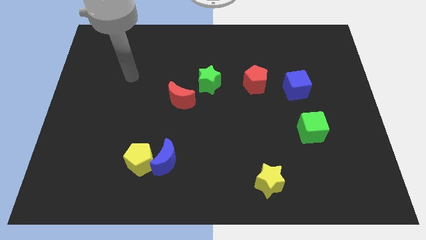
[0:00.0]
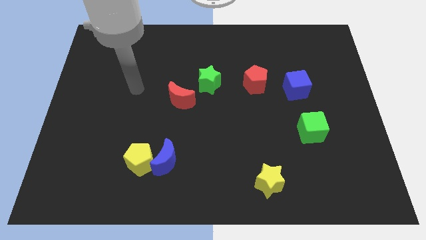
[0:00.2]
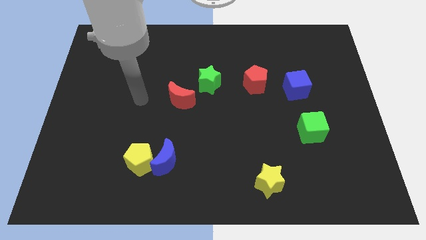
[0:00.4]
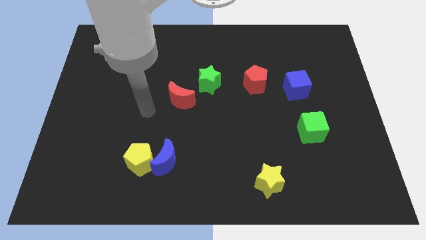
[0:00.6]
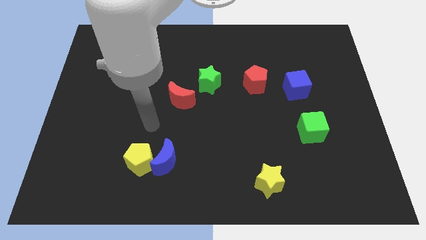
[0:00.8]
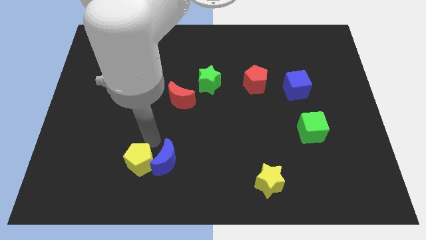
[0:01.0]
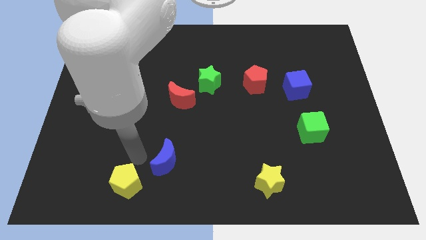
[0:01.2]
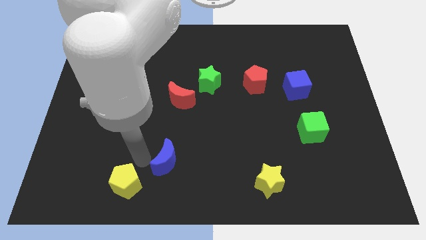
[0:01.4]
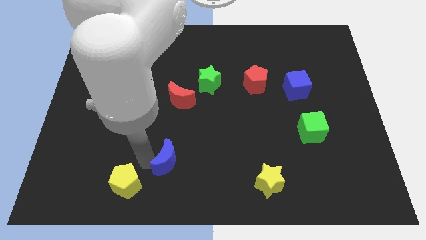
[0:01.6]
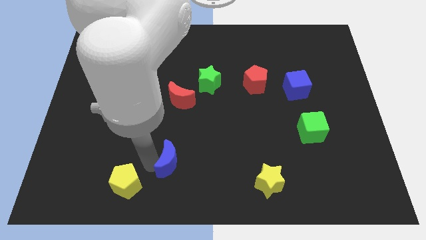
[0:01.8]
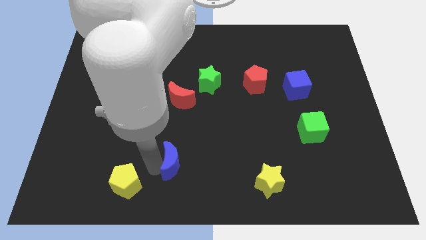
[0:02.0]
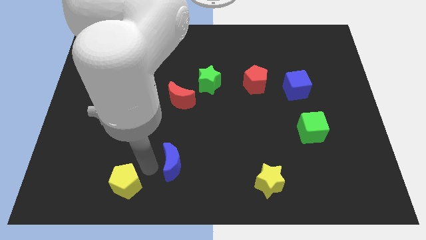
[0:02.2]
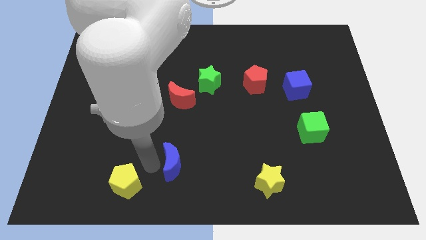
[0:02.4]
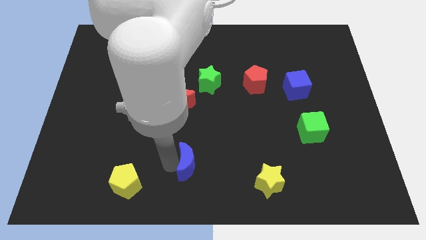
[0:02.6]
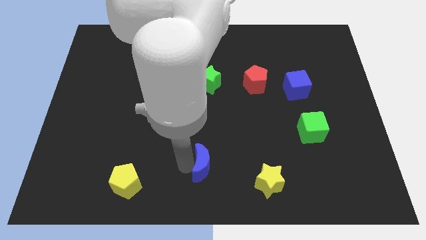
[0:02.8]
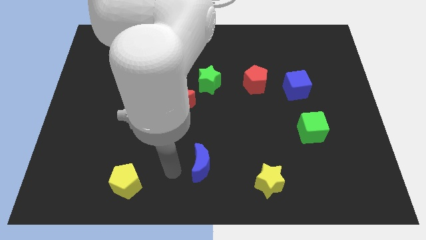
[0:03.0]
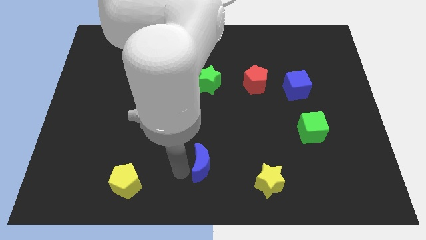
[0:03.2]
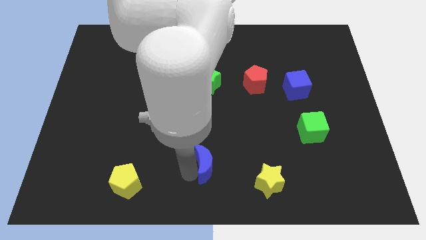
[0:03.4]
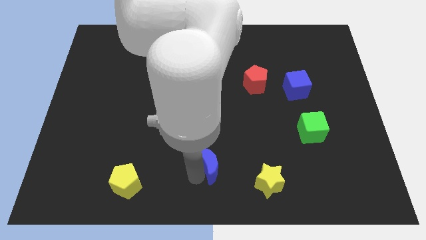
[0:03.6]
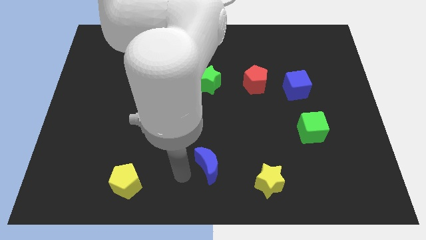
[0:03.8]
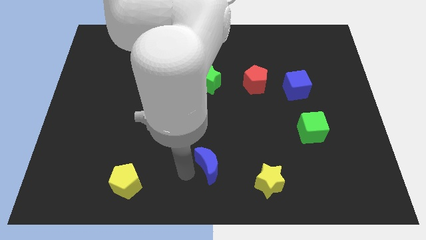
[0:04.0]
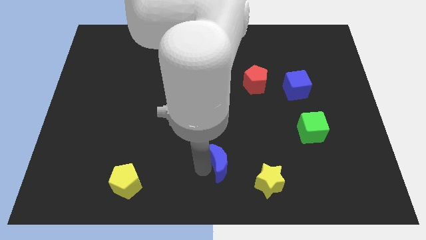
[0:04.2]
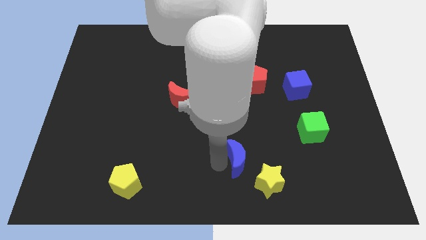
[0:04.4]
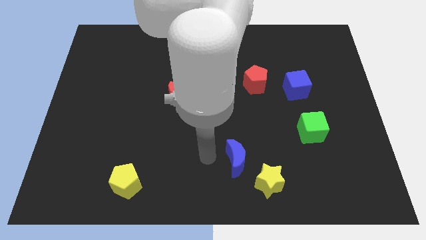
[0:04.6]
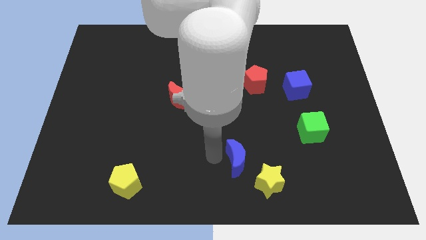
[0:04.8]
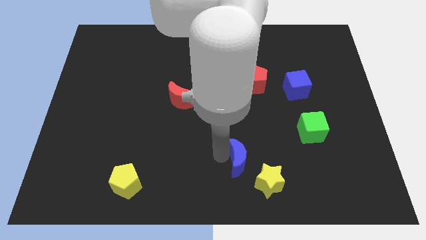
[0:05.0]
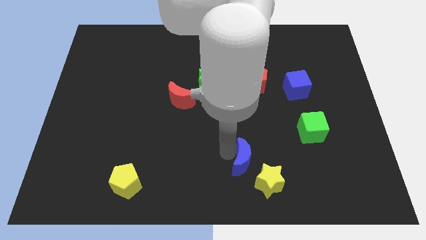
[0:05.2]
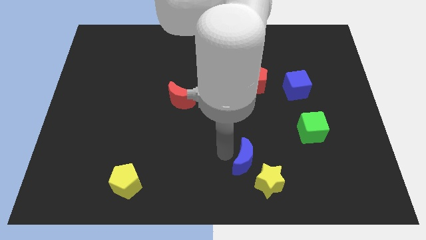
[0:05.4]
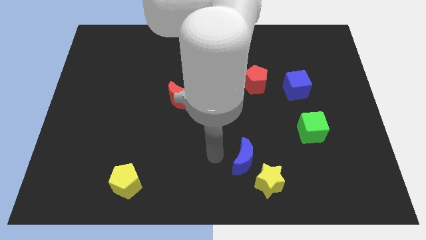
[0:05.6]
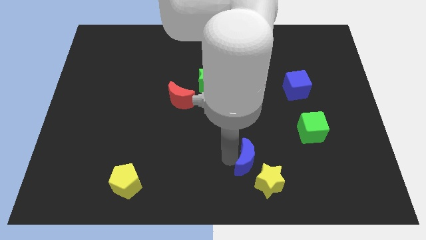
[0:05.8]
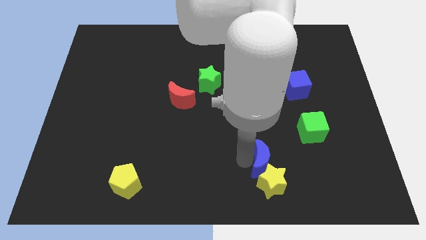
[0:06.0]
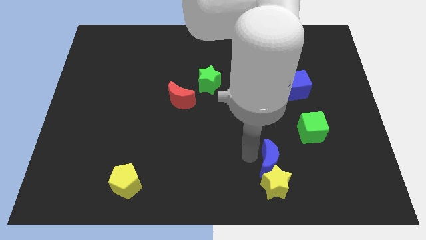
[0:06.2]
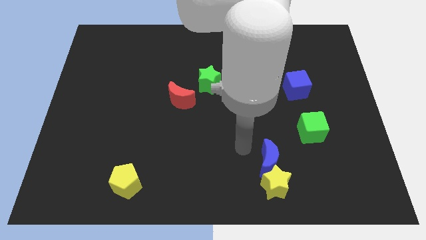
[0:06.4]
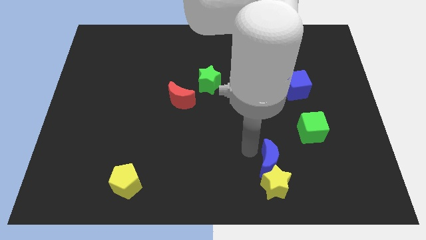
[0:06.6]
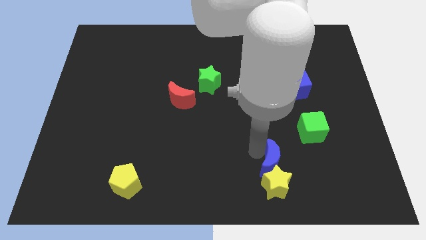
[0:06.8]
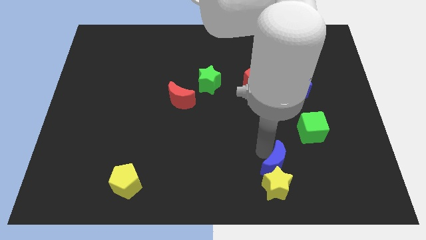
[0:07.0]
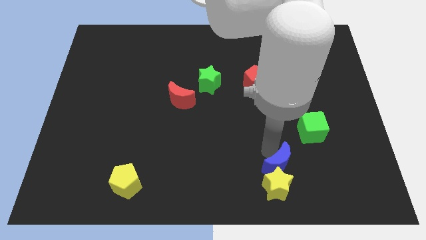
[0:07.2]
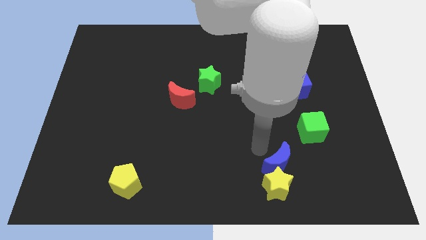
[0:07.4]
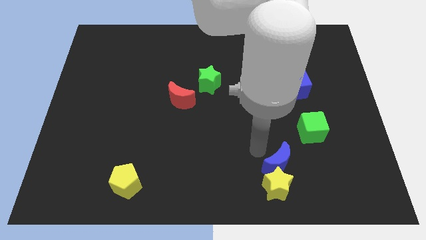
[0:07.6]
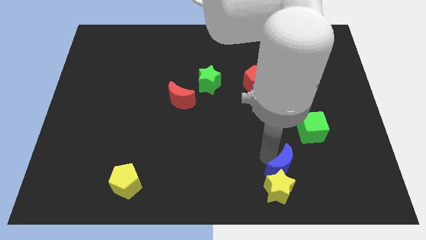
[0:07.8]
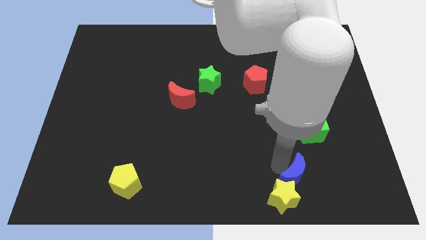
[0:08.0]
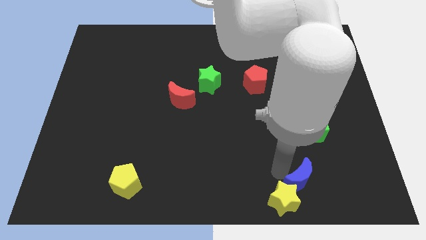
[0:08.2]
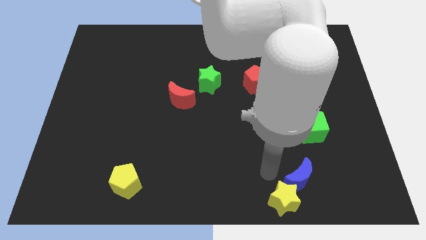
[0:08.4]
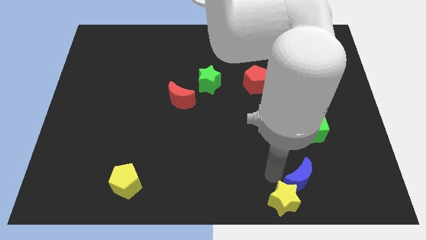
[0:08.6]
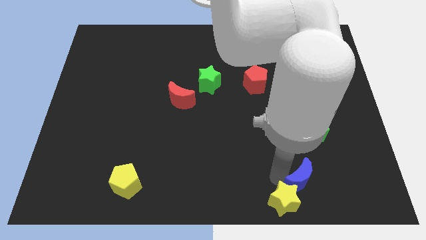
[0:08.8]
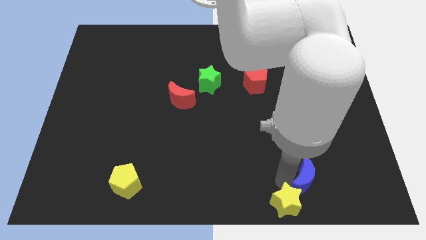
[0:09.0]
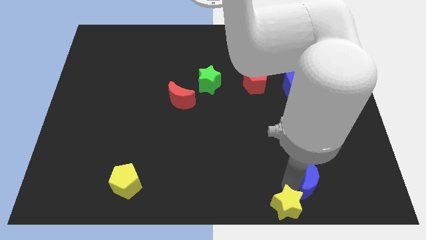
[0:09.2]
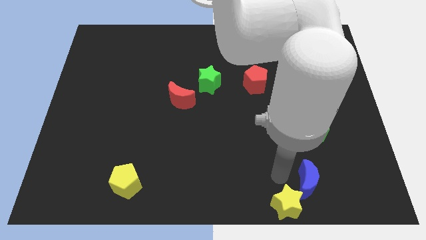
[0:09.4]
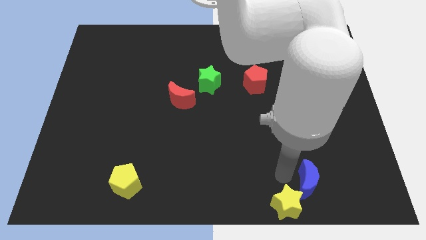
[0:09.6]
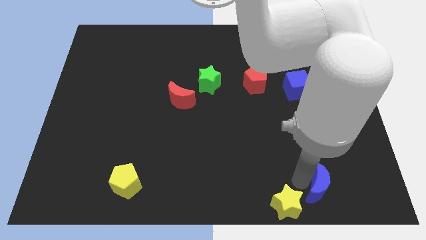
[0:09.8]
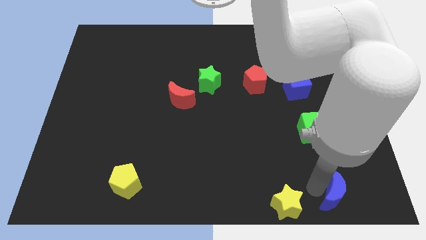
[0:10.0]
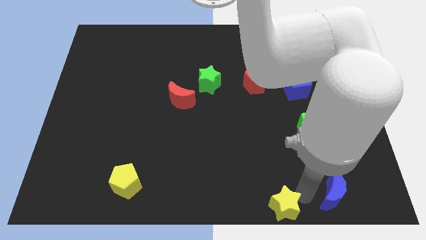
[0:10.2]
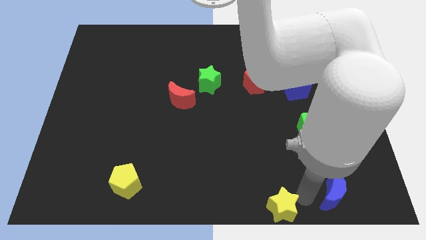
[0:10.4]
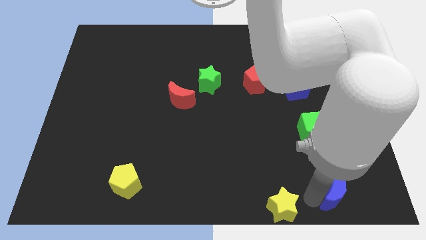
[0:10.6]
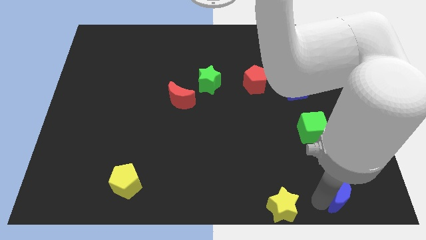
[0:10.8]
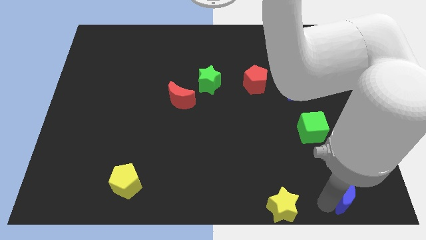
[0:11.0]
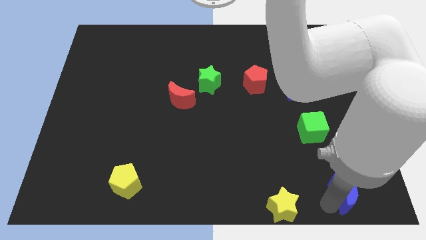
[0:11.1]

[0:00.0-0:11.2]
push the blue moon to the lower right corner
